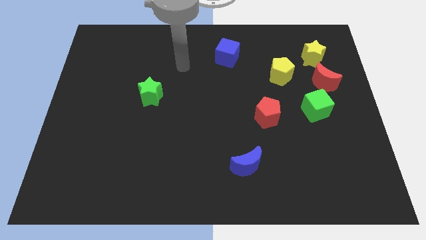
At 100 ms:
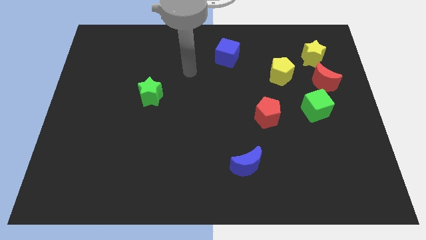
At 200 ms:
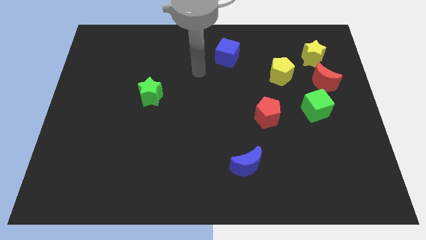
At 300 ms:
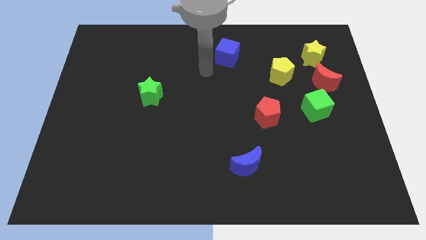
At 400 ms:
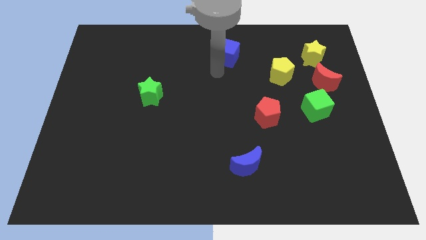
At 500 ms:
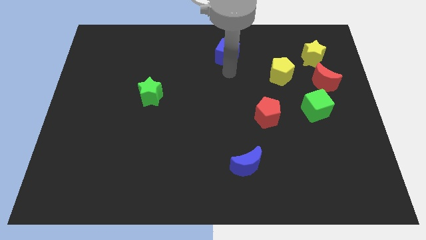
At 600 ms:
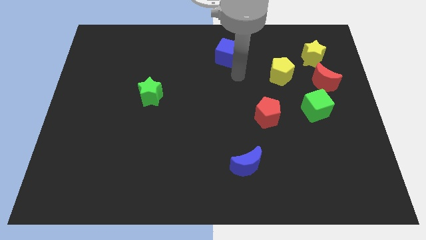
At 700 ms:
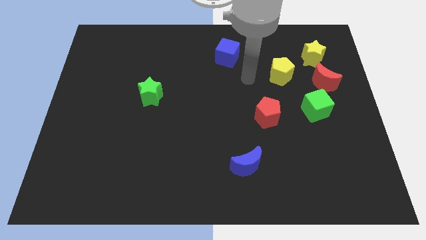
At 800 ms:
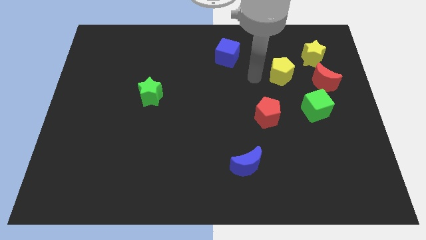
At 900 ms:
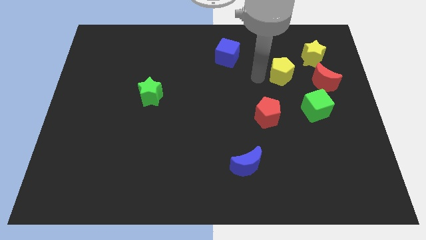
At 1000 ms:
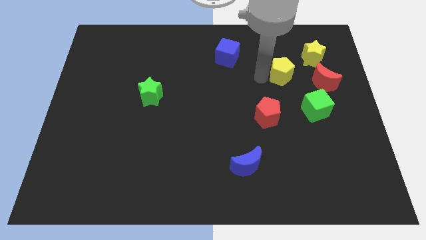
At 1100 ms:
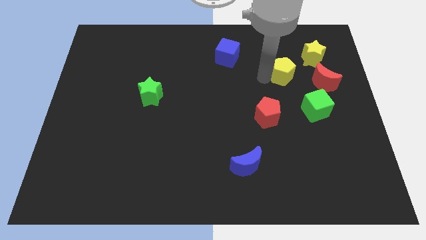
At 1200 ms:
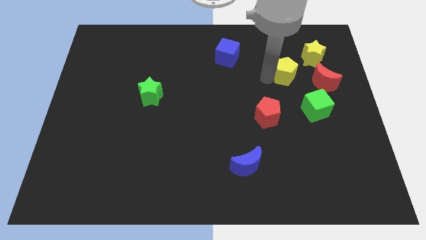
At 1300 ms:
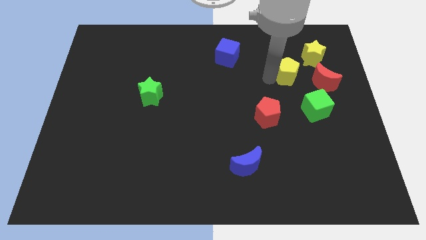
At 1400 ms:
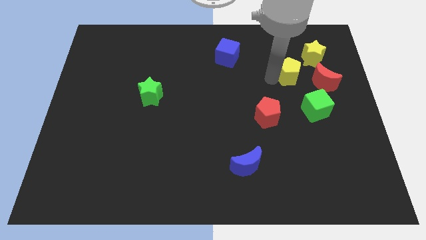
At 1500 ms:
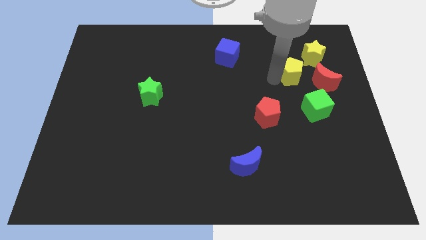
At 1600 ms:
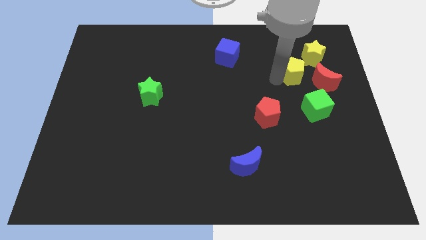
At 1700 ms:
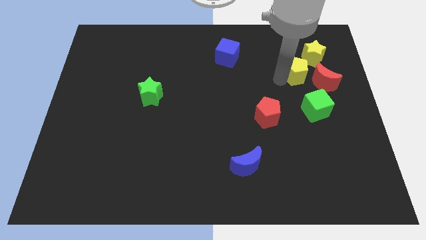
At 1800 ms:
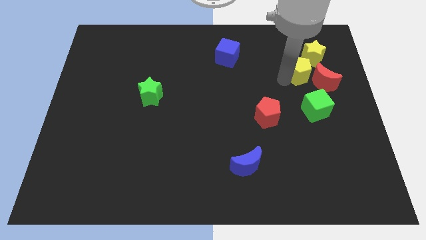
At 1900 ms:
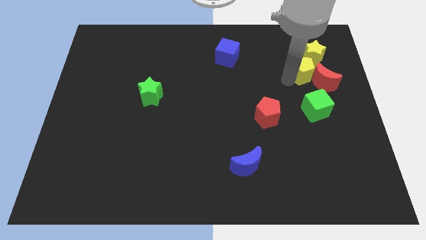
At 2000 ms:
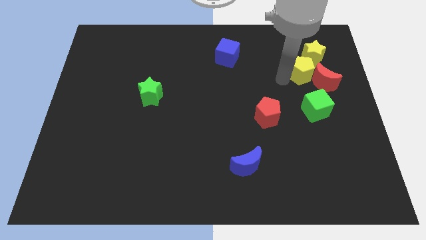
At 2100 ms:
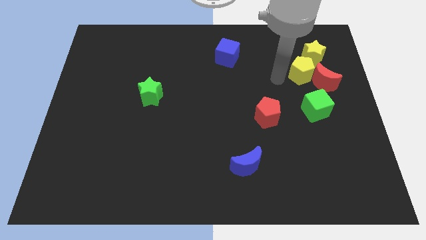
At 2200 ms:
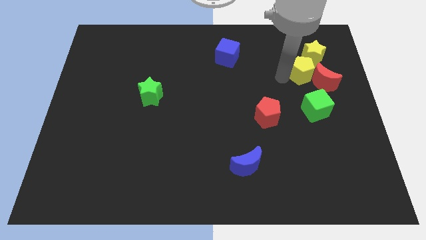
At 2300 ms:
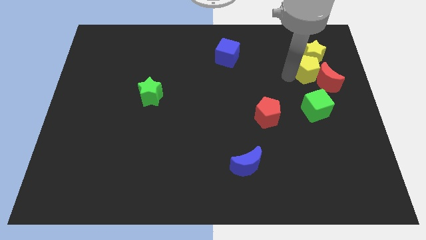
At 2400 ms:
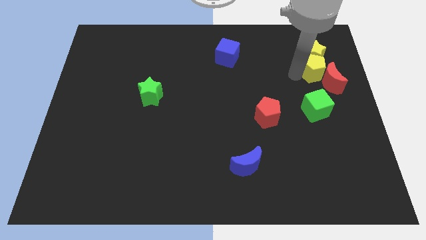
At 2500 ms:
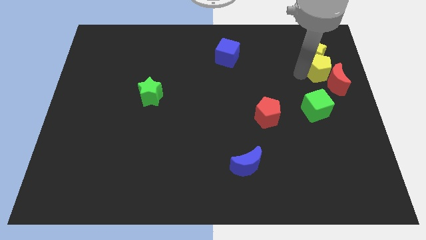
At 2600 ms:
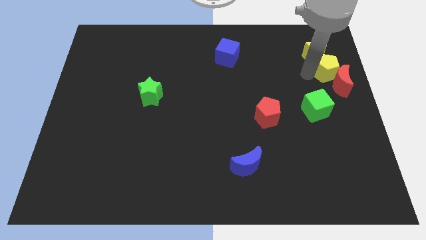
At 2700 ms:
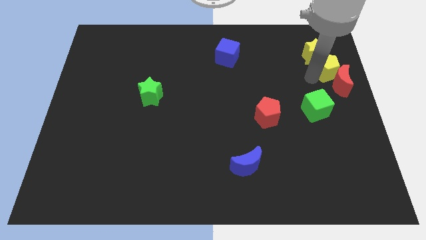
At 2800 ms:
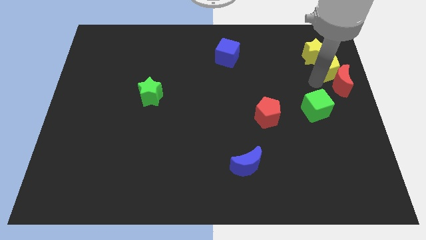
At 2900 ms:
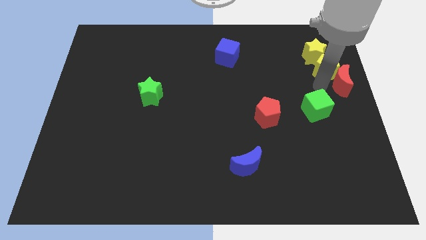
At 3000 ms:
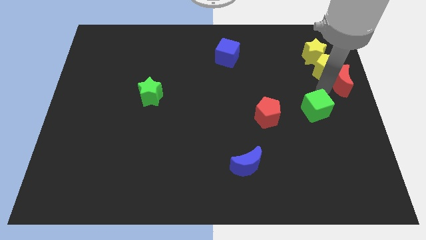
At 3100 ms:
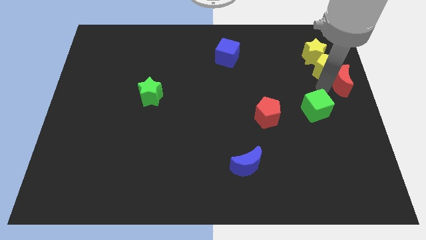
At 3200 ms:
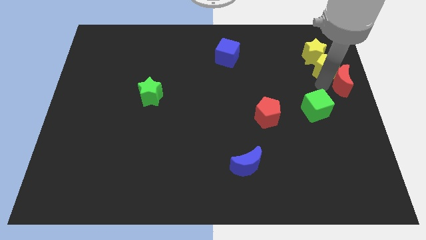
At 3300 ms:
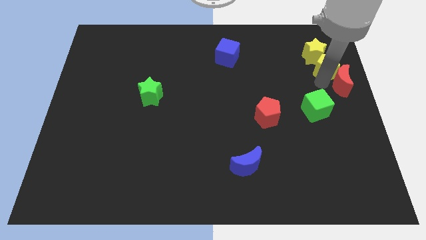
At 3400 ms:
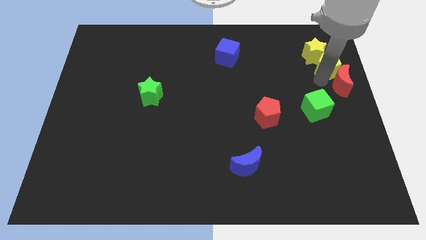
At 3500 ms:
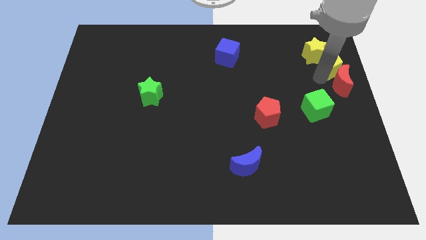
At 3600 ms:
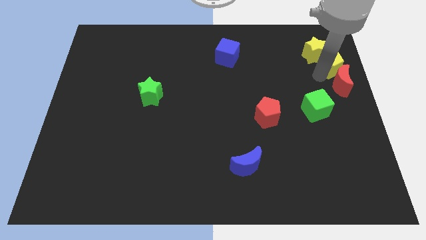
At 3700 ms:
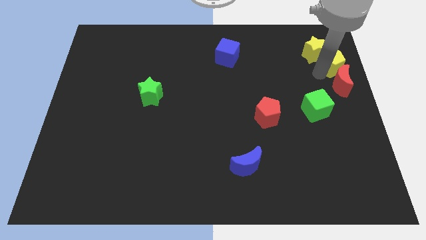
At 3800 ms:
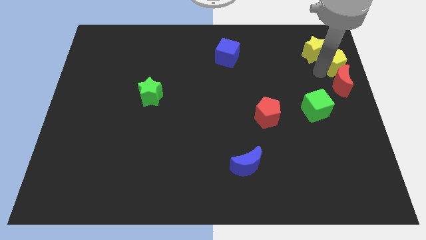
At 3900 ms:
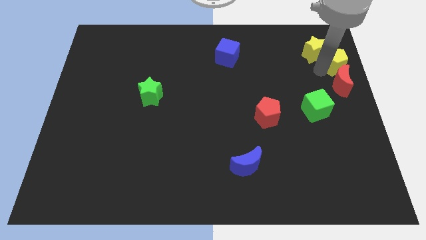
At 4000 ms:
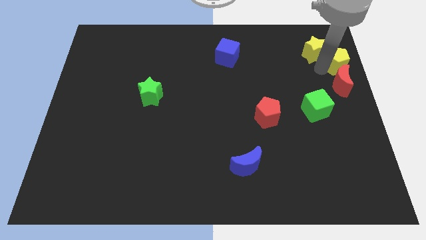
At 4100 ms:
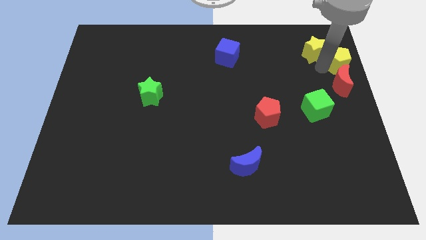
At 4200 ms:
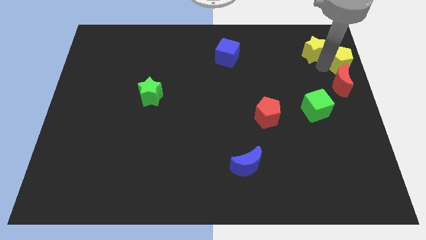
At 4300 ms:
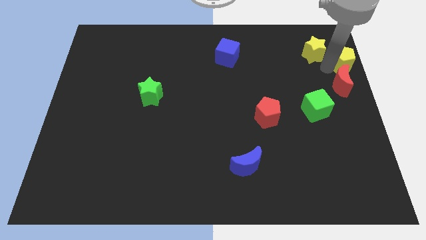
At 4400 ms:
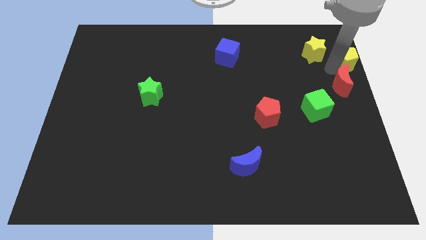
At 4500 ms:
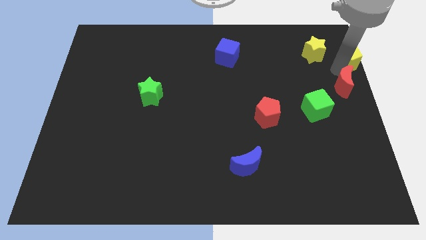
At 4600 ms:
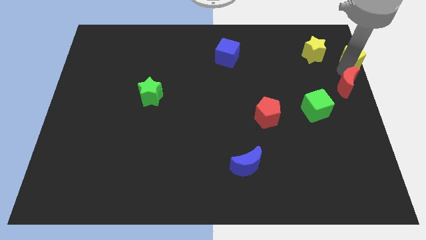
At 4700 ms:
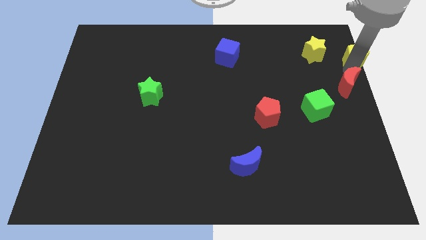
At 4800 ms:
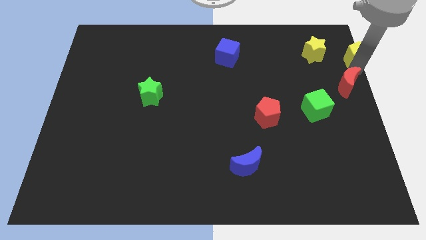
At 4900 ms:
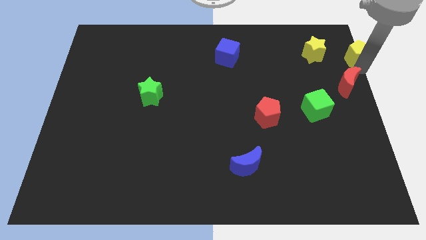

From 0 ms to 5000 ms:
slide the yellow pentagon to the top right corner

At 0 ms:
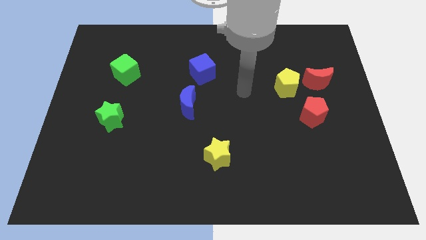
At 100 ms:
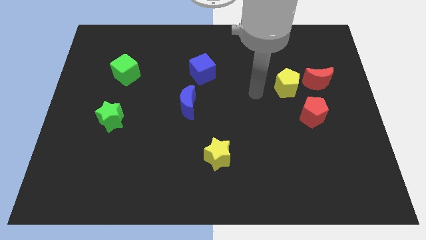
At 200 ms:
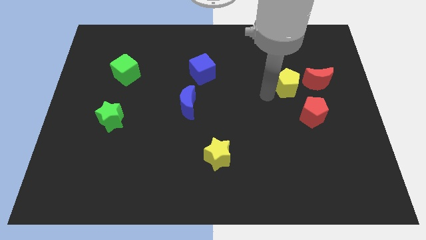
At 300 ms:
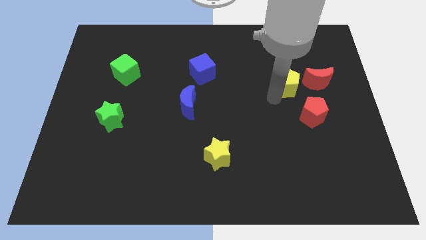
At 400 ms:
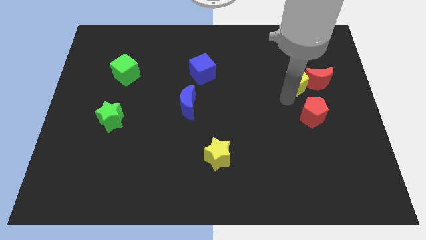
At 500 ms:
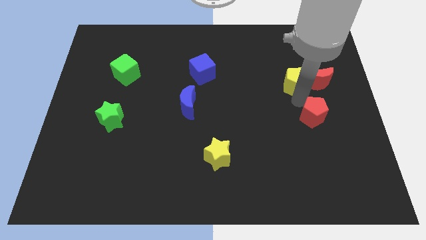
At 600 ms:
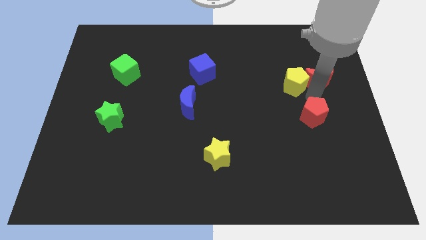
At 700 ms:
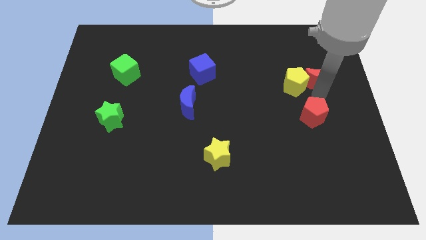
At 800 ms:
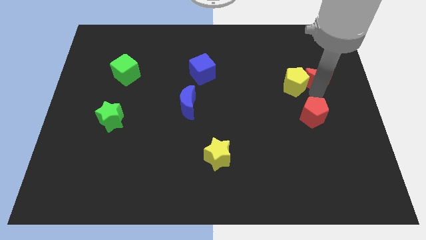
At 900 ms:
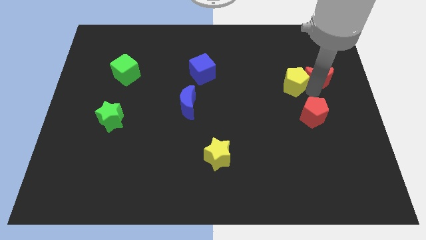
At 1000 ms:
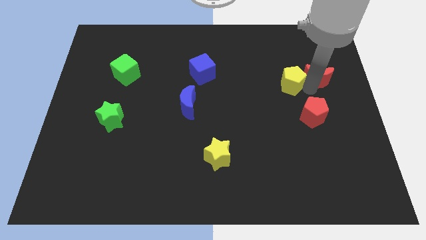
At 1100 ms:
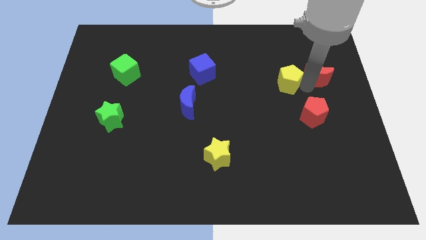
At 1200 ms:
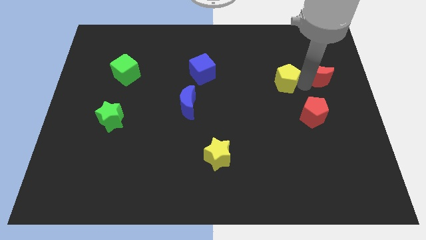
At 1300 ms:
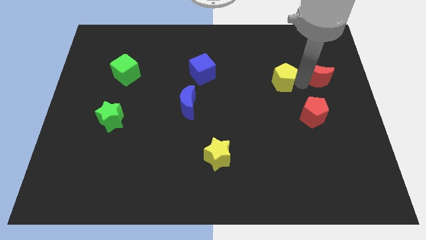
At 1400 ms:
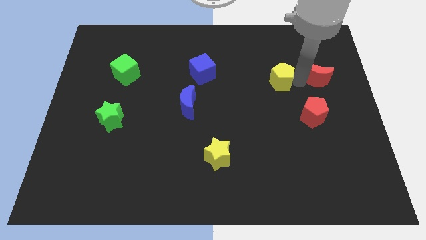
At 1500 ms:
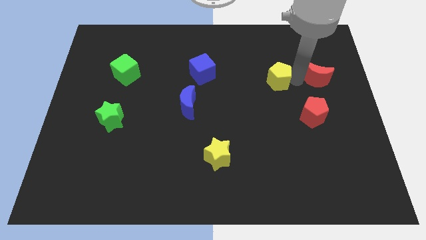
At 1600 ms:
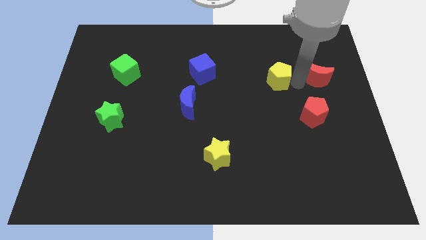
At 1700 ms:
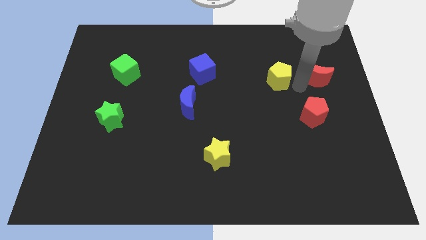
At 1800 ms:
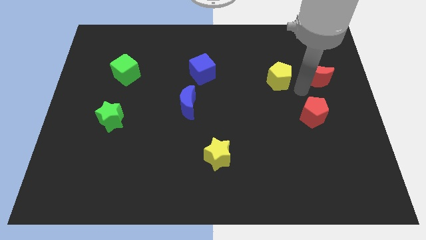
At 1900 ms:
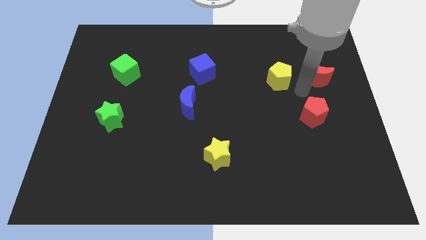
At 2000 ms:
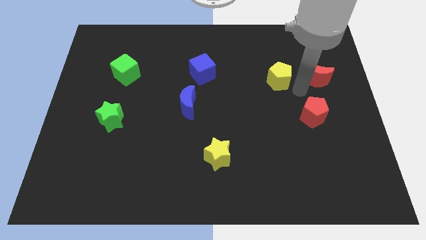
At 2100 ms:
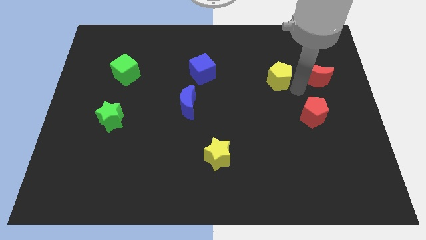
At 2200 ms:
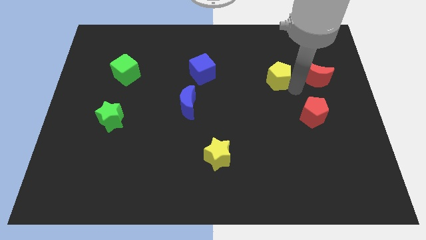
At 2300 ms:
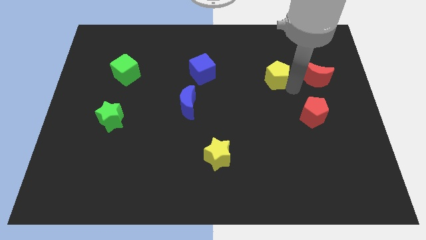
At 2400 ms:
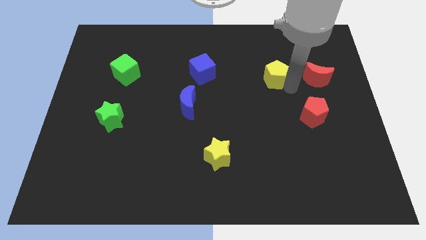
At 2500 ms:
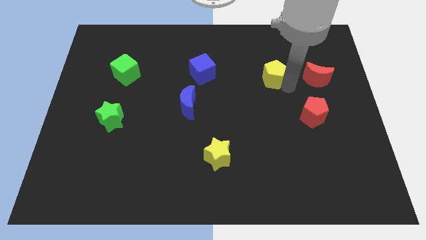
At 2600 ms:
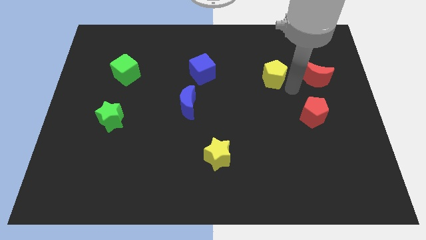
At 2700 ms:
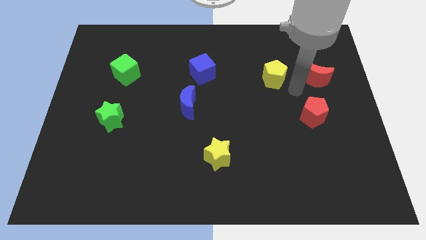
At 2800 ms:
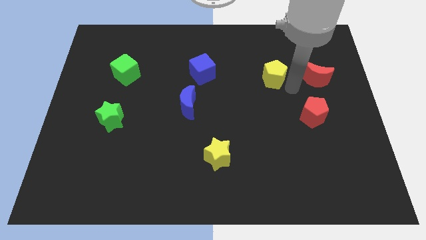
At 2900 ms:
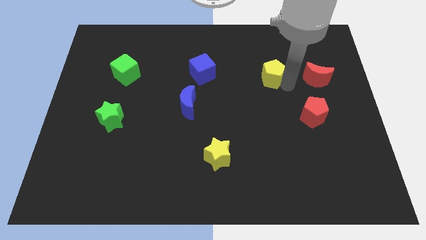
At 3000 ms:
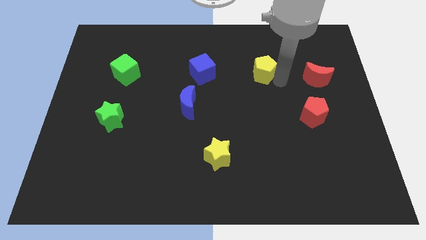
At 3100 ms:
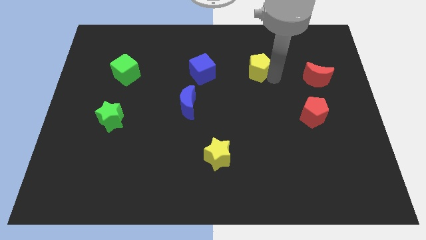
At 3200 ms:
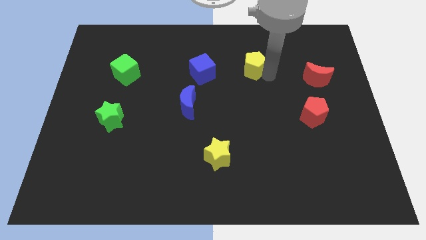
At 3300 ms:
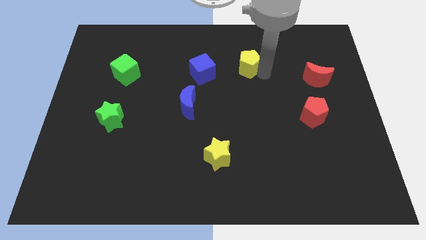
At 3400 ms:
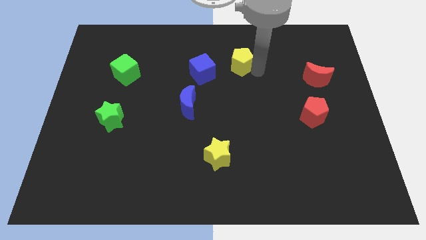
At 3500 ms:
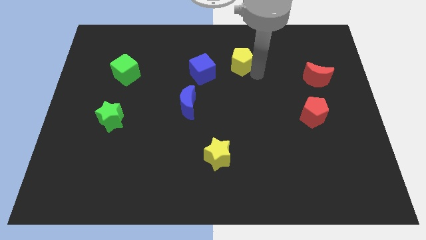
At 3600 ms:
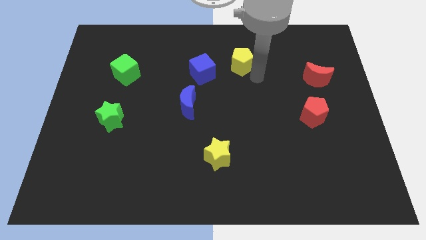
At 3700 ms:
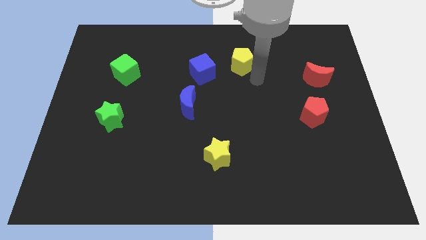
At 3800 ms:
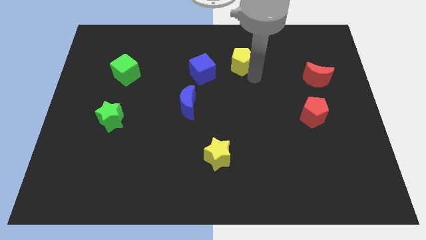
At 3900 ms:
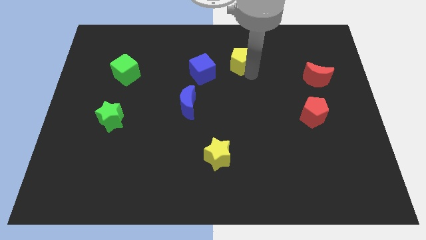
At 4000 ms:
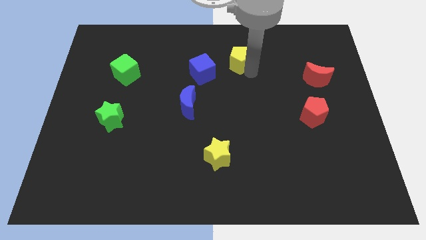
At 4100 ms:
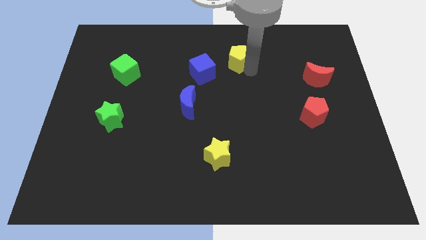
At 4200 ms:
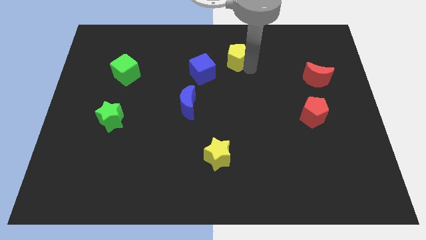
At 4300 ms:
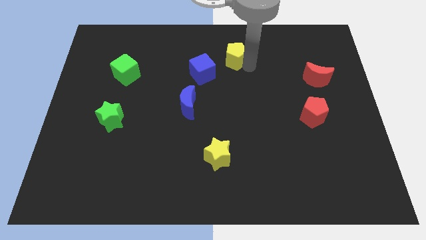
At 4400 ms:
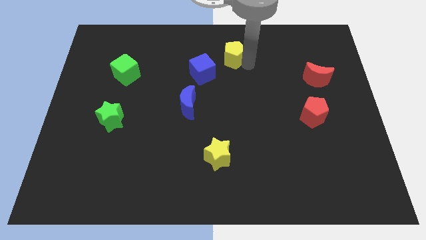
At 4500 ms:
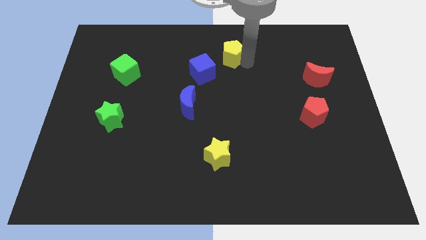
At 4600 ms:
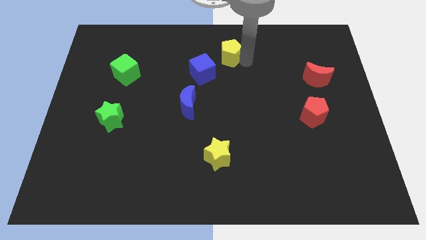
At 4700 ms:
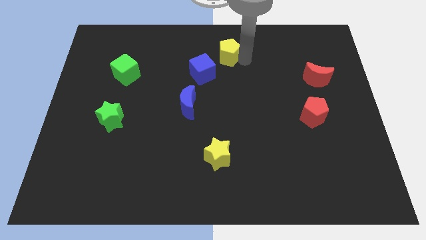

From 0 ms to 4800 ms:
move the yellow pentagon to the towards your base
